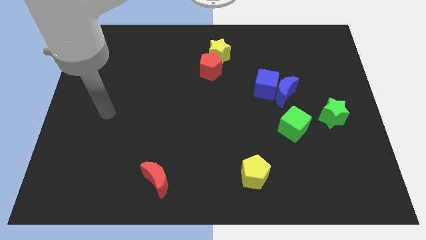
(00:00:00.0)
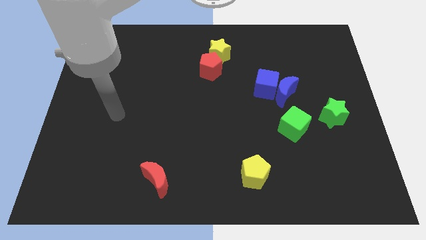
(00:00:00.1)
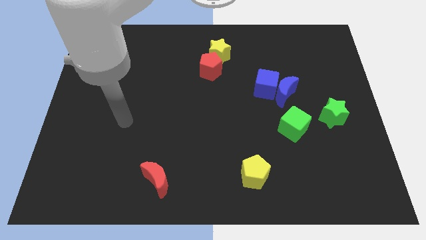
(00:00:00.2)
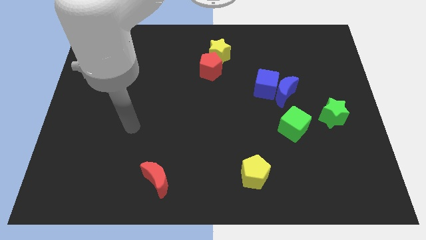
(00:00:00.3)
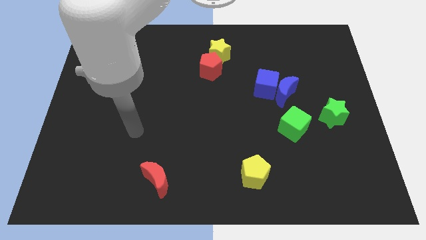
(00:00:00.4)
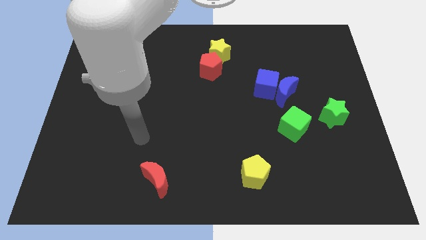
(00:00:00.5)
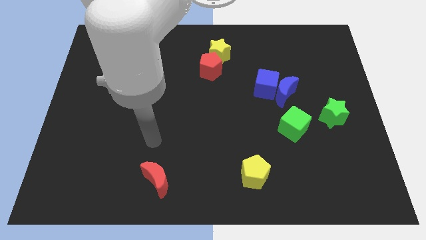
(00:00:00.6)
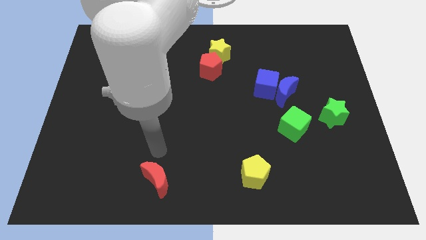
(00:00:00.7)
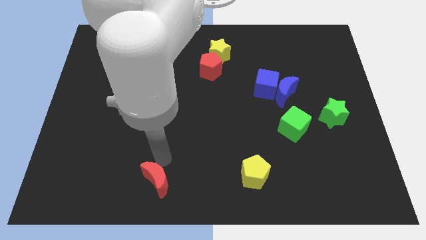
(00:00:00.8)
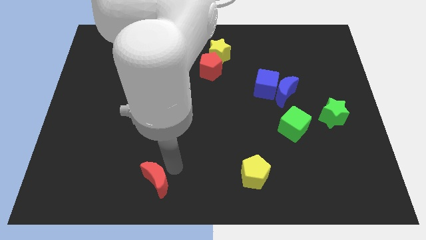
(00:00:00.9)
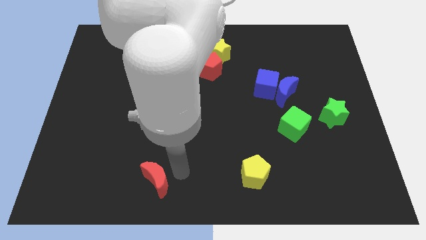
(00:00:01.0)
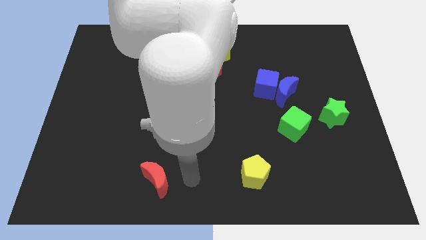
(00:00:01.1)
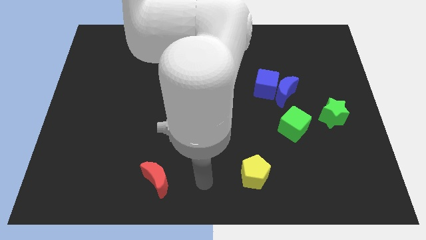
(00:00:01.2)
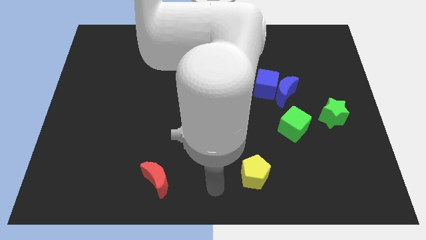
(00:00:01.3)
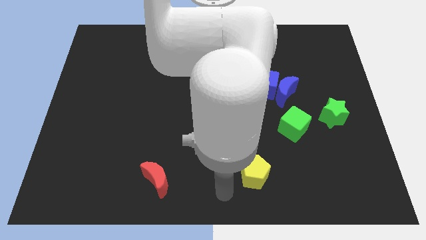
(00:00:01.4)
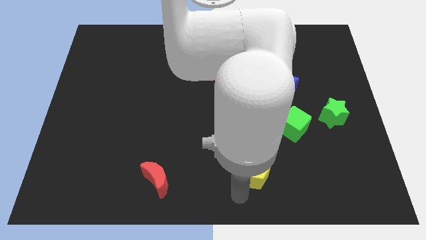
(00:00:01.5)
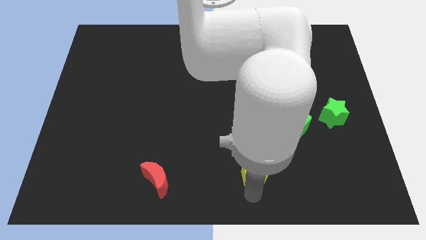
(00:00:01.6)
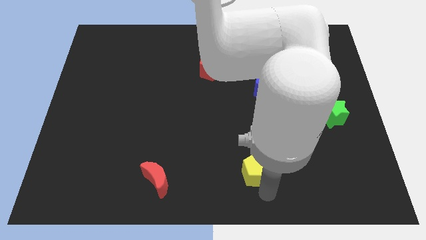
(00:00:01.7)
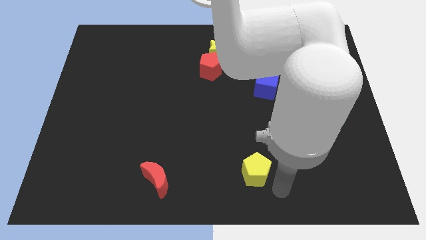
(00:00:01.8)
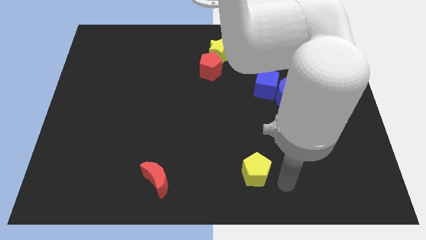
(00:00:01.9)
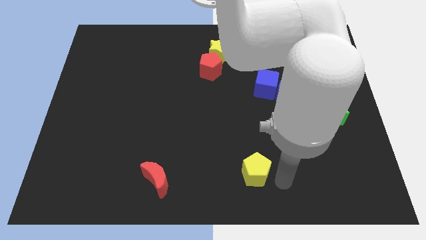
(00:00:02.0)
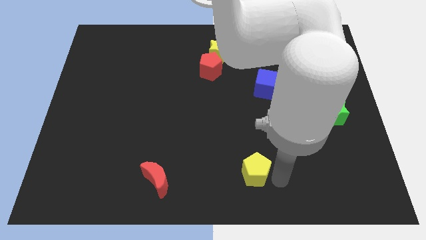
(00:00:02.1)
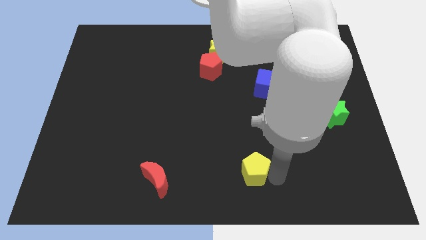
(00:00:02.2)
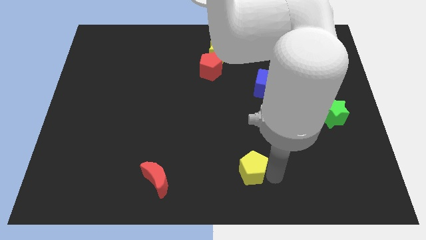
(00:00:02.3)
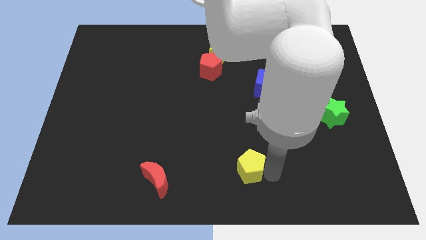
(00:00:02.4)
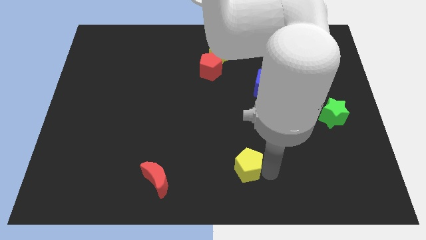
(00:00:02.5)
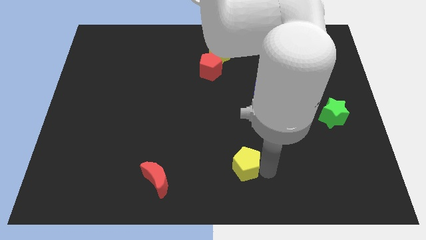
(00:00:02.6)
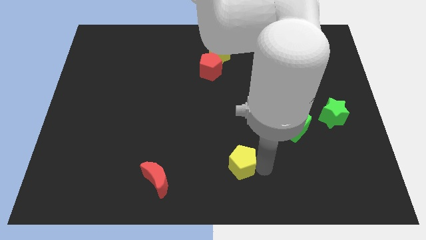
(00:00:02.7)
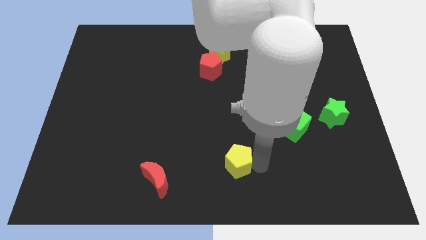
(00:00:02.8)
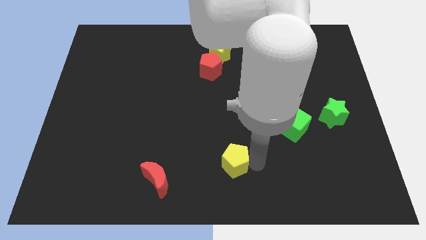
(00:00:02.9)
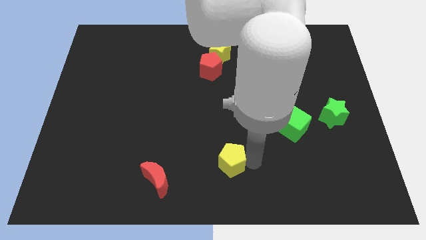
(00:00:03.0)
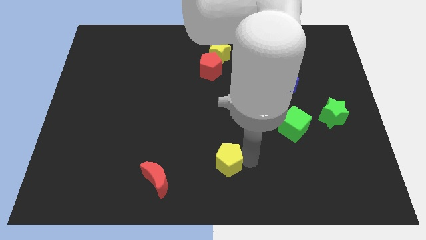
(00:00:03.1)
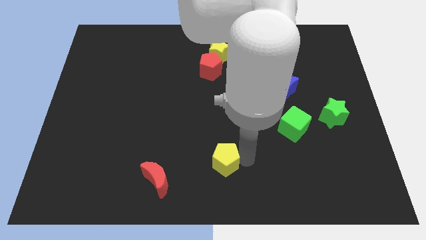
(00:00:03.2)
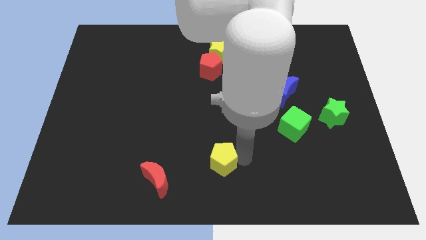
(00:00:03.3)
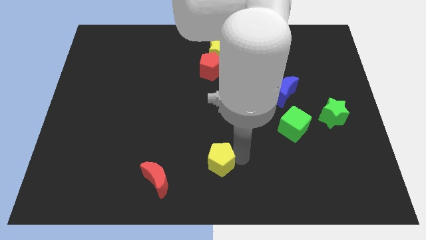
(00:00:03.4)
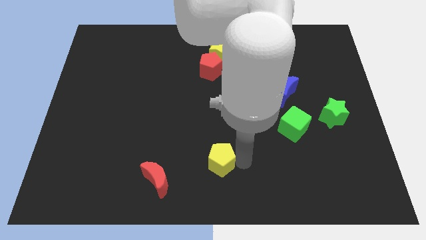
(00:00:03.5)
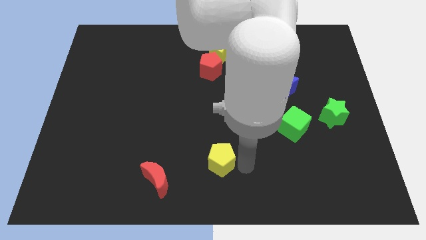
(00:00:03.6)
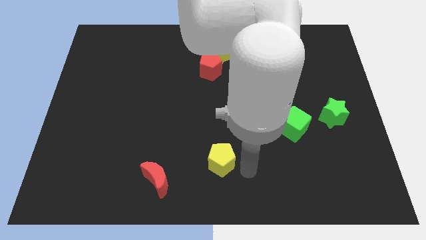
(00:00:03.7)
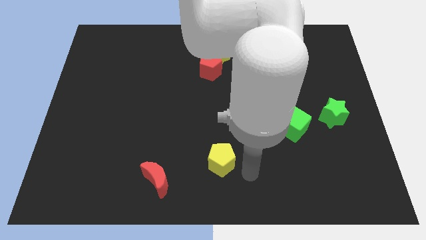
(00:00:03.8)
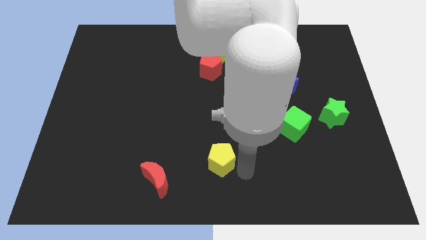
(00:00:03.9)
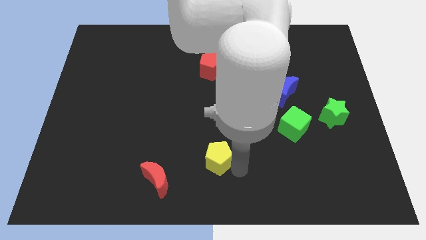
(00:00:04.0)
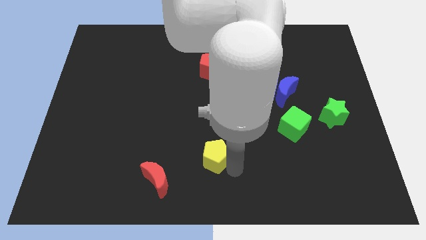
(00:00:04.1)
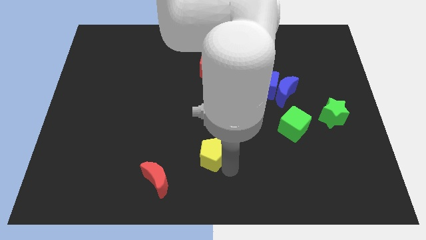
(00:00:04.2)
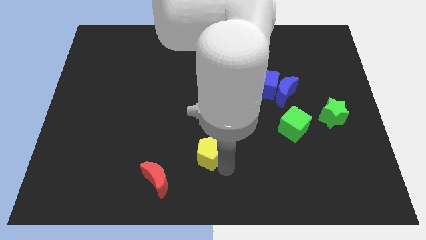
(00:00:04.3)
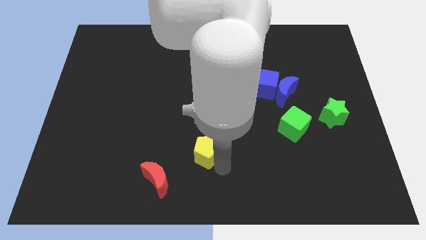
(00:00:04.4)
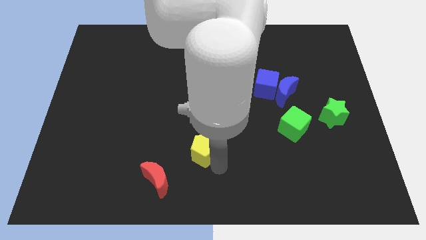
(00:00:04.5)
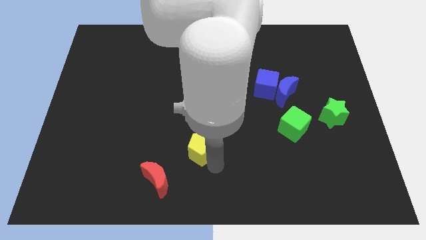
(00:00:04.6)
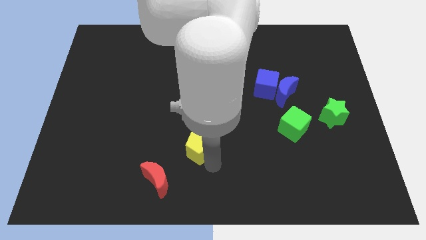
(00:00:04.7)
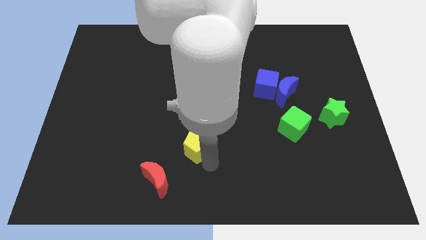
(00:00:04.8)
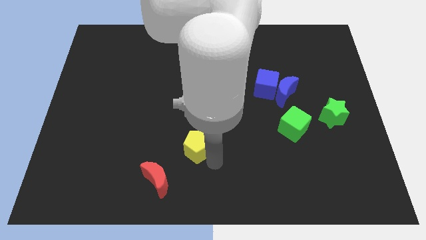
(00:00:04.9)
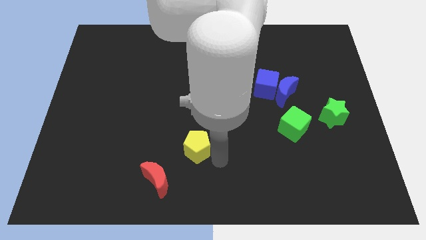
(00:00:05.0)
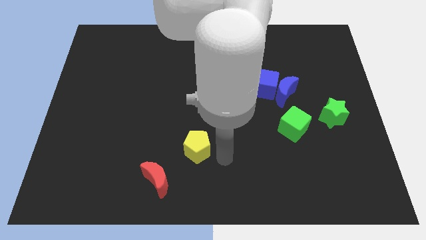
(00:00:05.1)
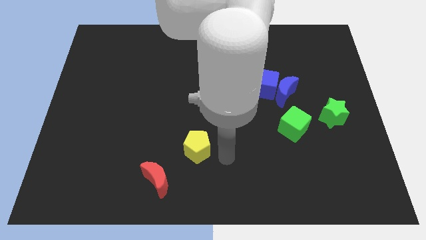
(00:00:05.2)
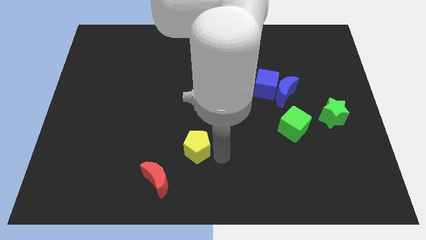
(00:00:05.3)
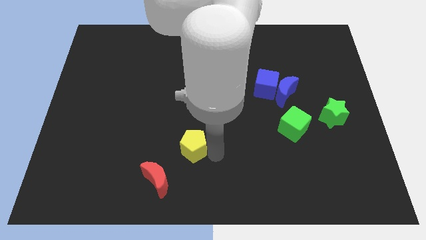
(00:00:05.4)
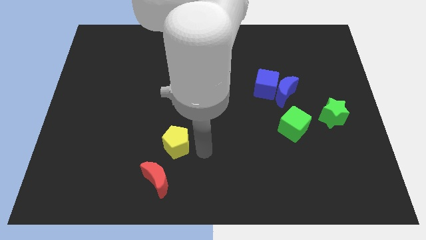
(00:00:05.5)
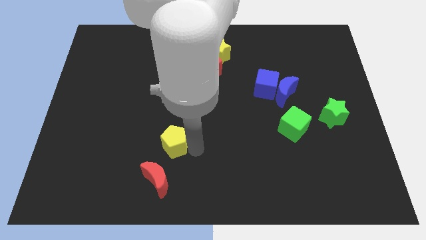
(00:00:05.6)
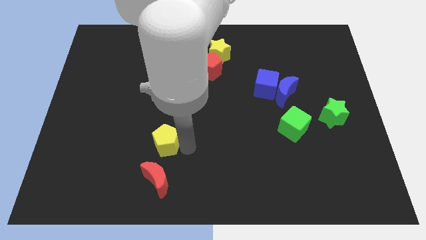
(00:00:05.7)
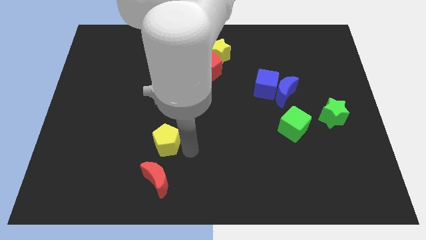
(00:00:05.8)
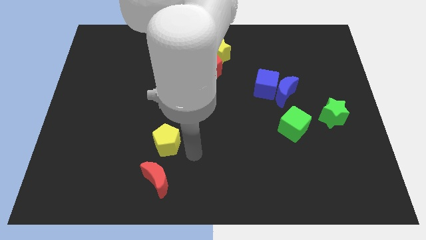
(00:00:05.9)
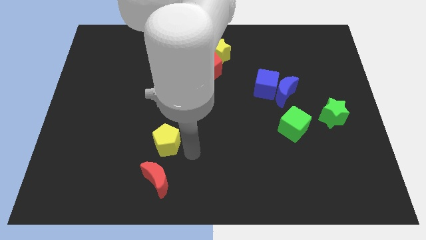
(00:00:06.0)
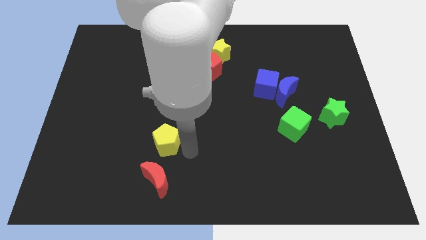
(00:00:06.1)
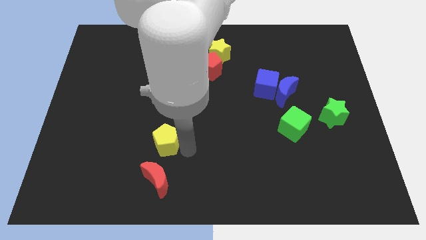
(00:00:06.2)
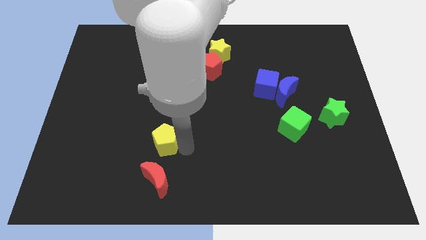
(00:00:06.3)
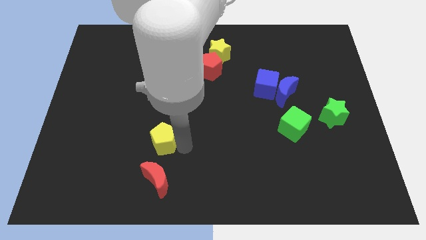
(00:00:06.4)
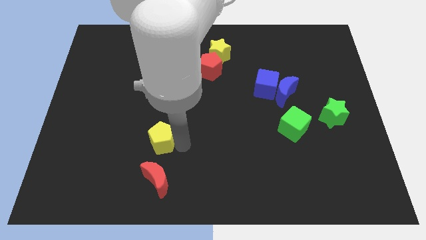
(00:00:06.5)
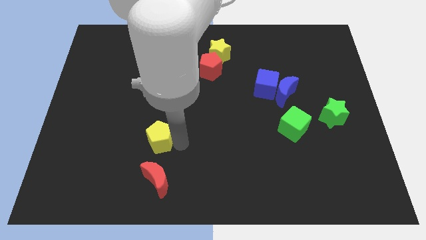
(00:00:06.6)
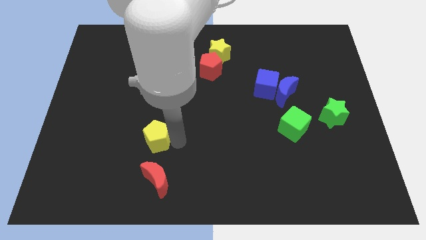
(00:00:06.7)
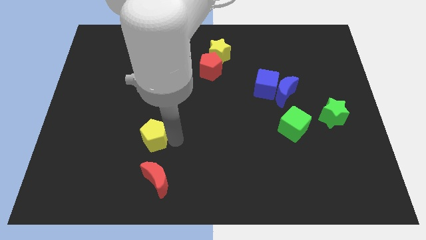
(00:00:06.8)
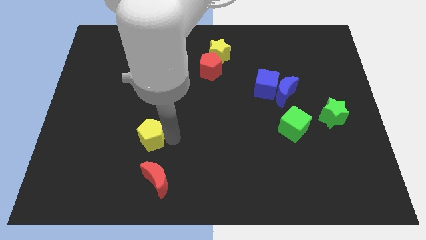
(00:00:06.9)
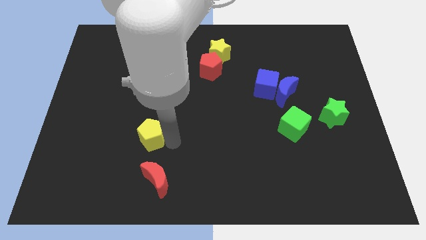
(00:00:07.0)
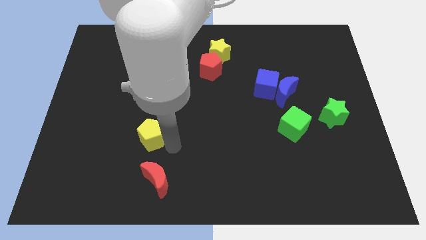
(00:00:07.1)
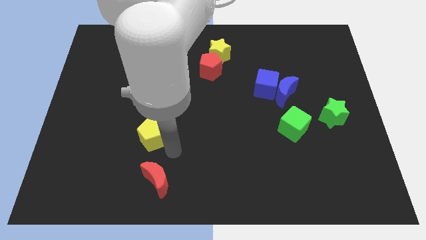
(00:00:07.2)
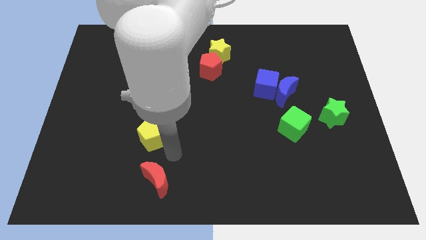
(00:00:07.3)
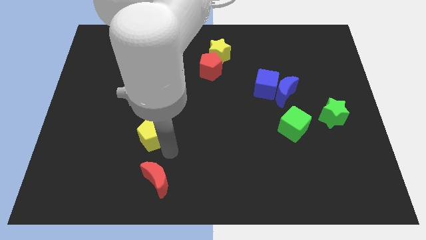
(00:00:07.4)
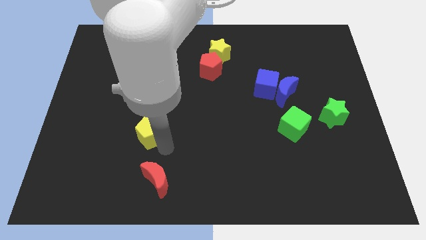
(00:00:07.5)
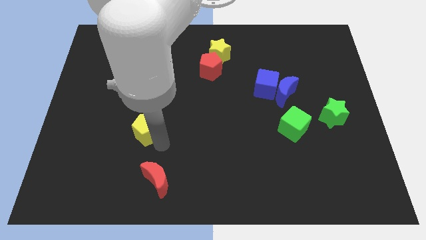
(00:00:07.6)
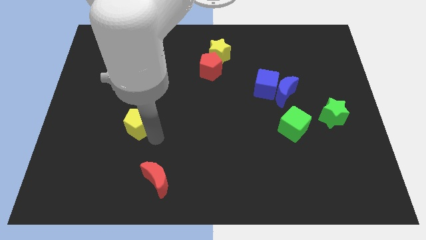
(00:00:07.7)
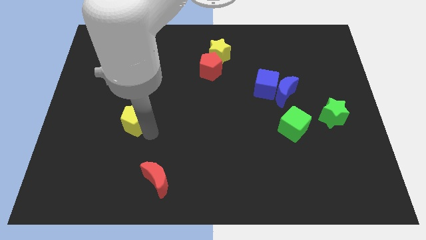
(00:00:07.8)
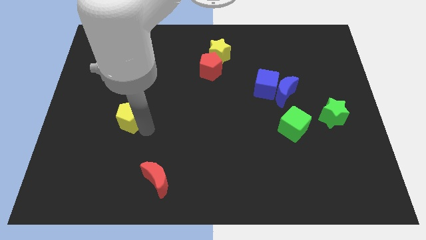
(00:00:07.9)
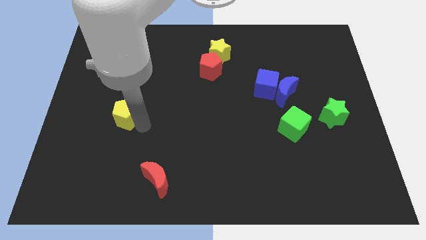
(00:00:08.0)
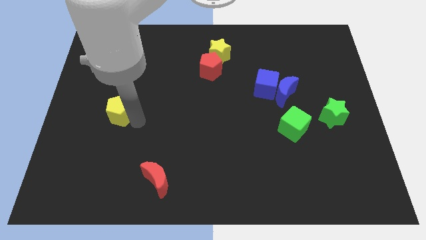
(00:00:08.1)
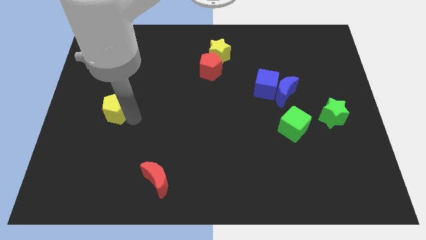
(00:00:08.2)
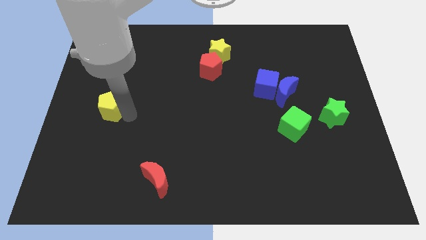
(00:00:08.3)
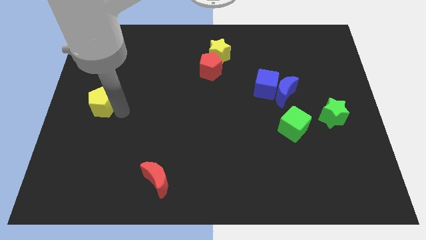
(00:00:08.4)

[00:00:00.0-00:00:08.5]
move the yellow pentagon to the left side
